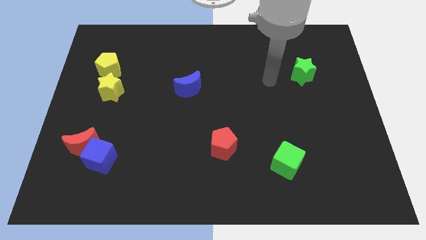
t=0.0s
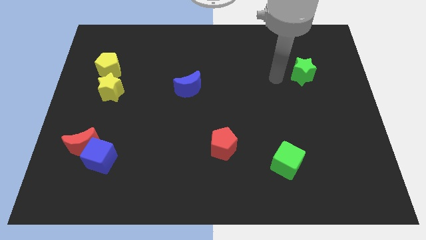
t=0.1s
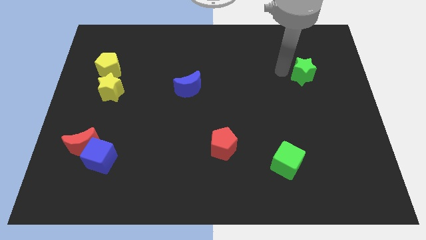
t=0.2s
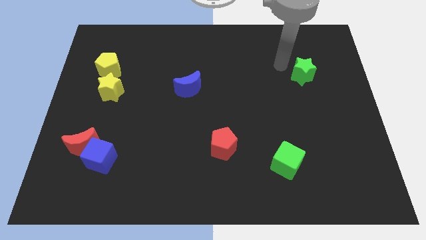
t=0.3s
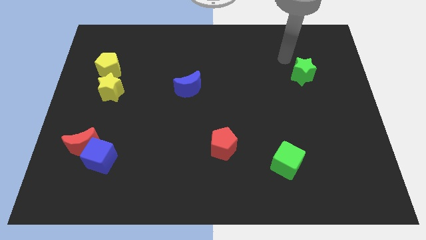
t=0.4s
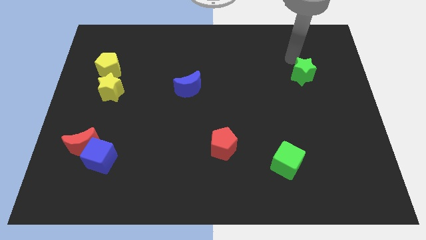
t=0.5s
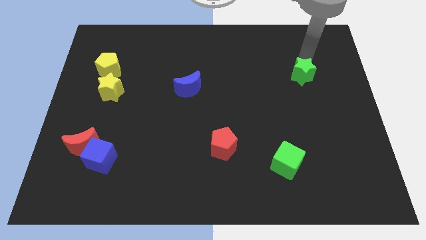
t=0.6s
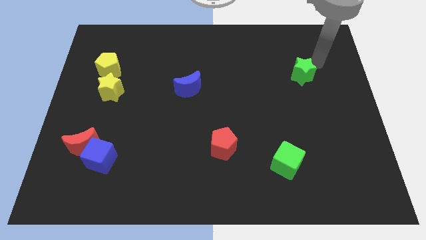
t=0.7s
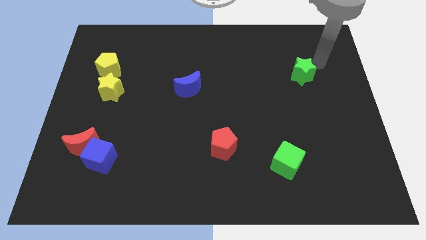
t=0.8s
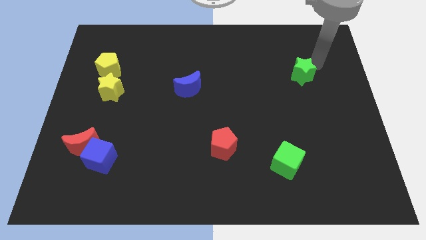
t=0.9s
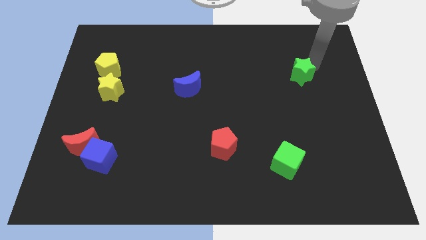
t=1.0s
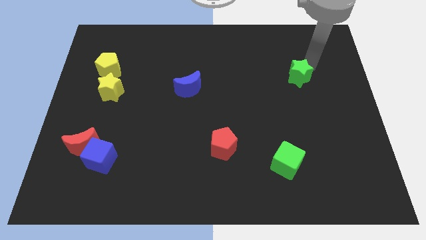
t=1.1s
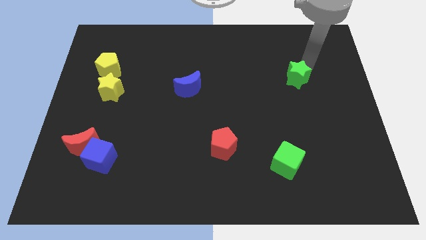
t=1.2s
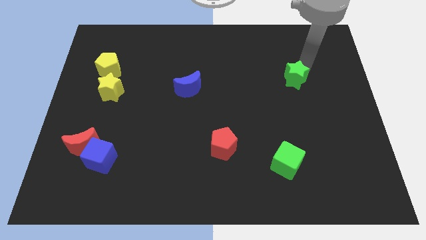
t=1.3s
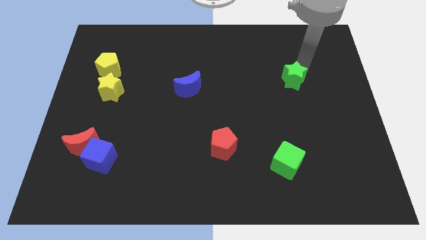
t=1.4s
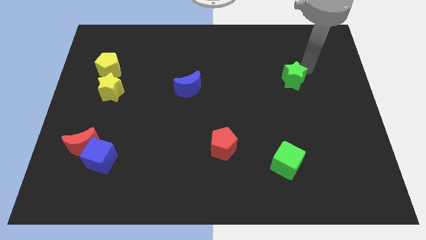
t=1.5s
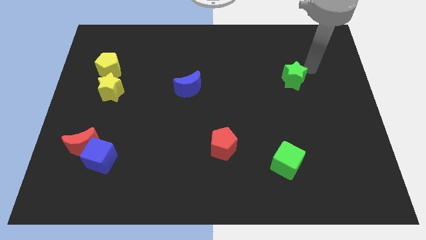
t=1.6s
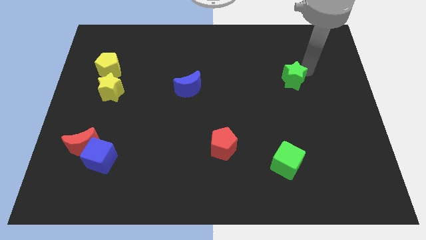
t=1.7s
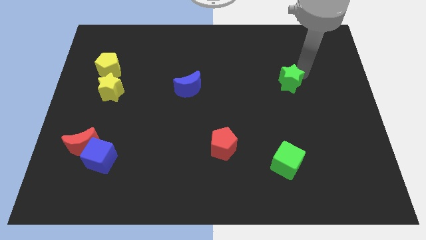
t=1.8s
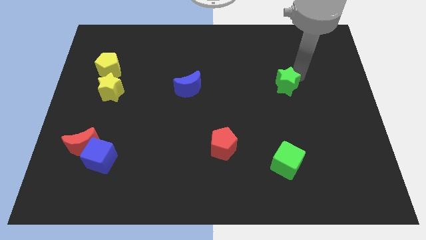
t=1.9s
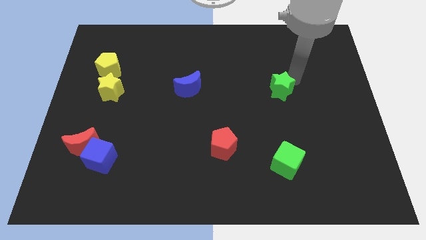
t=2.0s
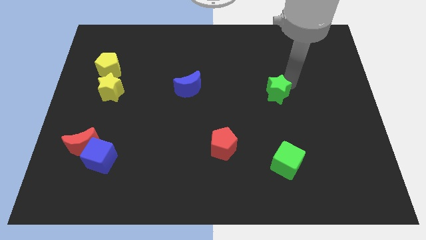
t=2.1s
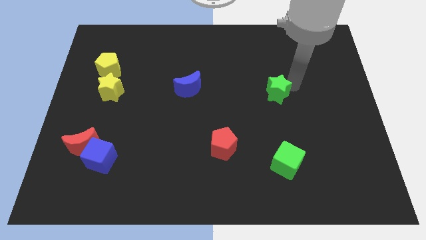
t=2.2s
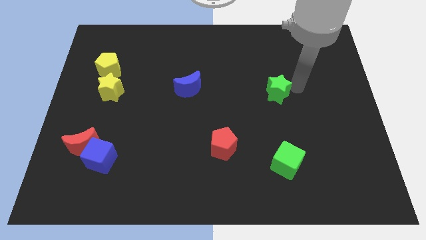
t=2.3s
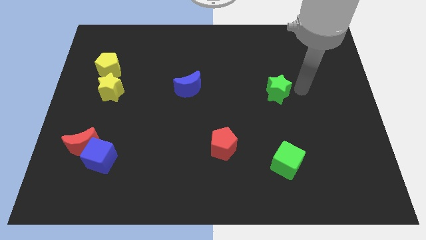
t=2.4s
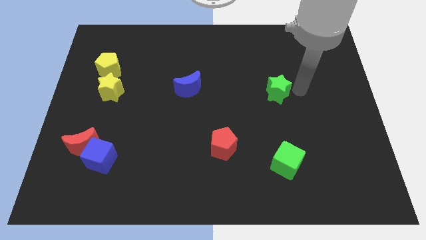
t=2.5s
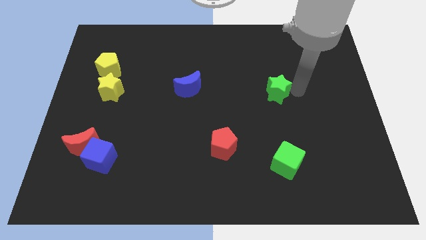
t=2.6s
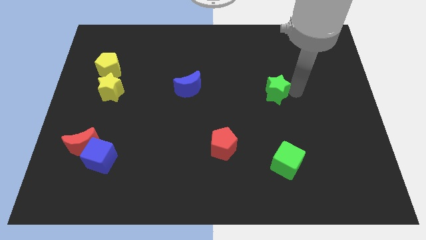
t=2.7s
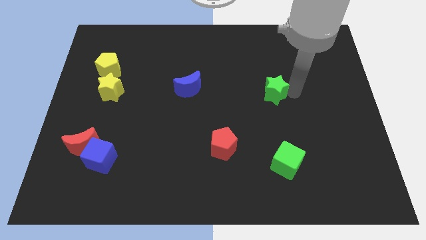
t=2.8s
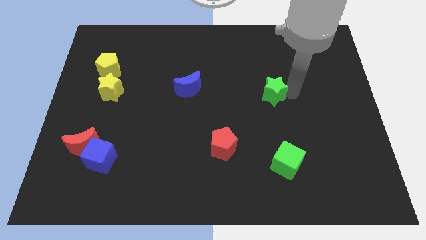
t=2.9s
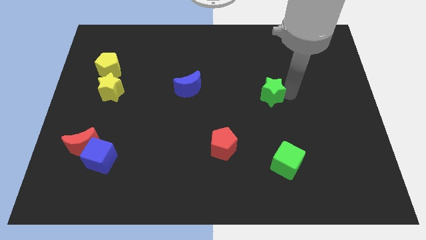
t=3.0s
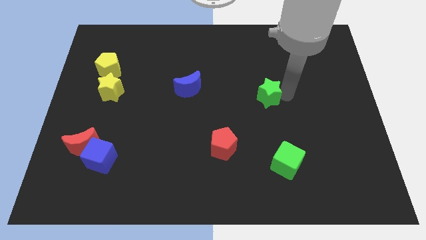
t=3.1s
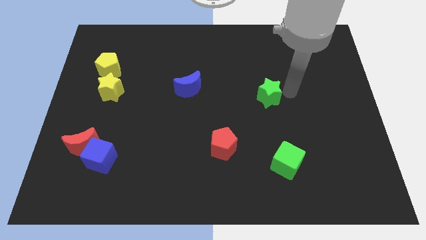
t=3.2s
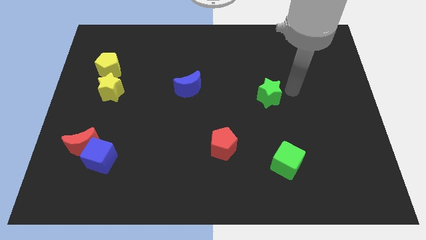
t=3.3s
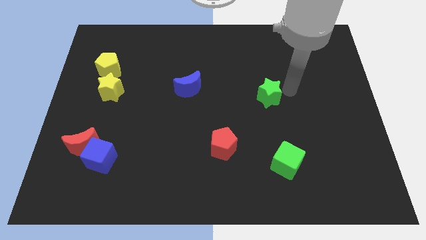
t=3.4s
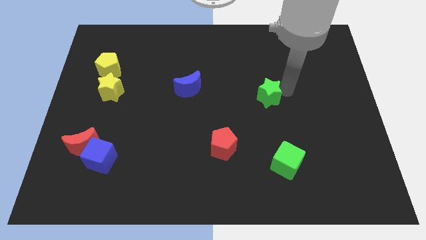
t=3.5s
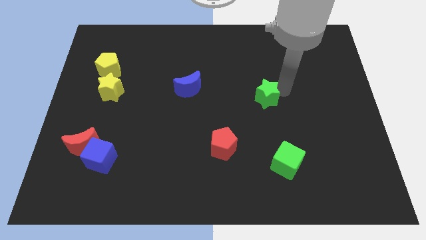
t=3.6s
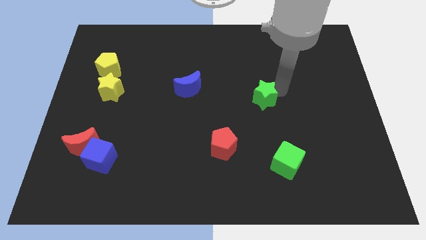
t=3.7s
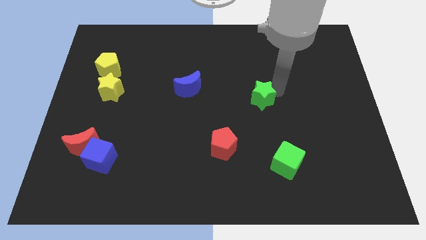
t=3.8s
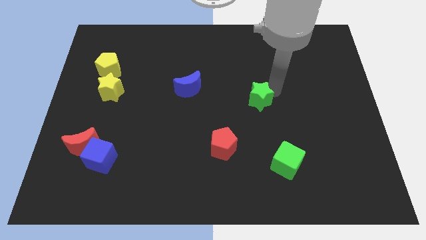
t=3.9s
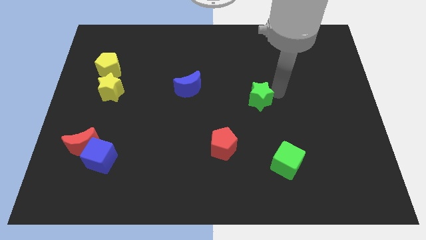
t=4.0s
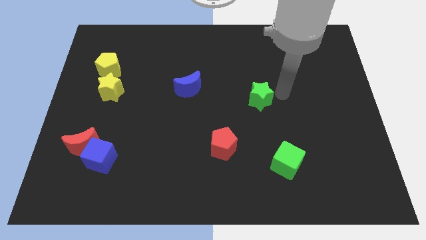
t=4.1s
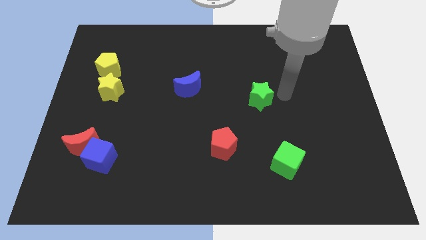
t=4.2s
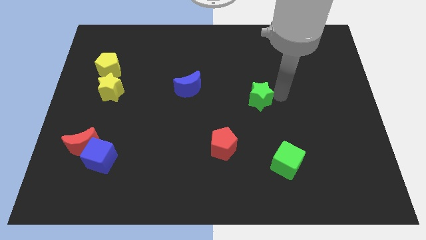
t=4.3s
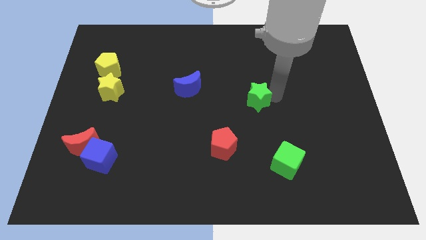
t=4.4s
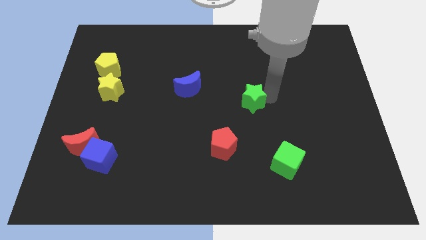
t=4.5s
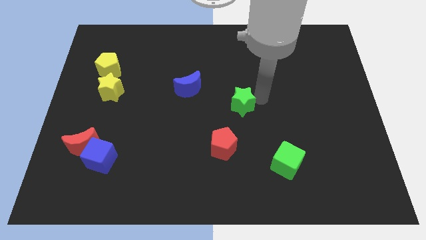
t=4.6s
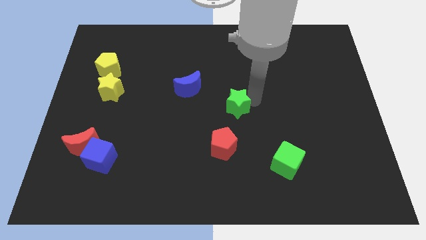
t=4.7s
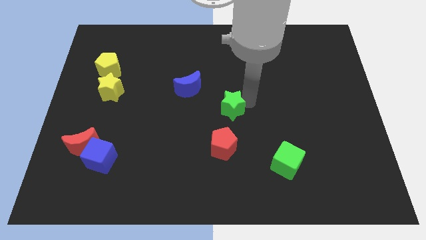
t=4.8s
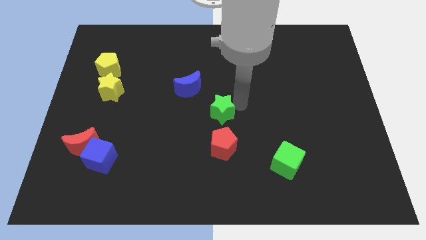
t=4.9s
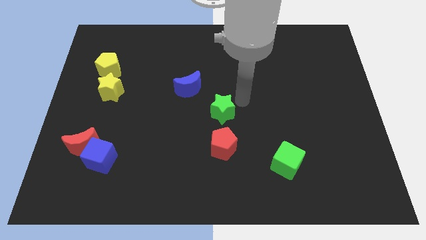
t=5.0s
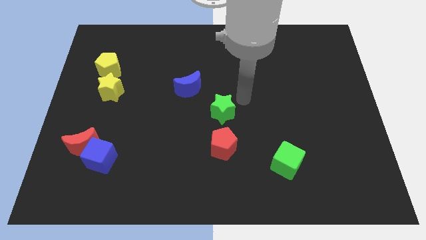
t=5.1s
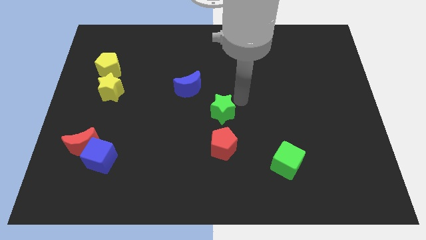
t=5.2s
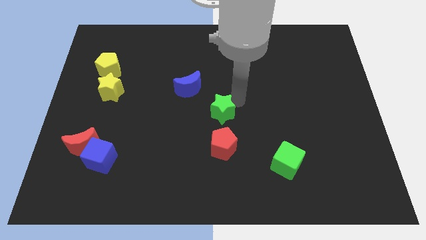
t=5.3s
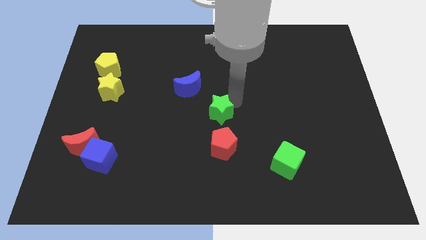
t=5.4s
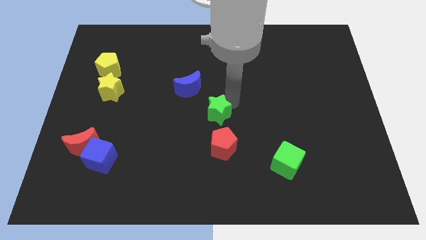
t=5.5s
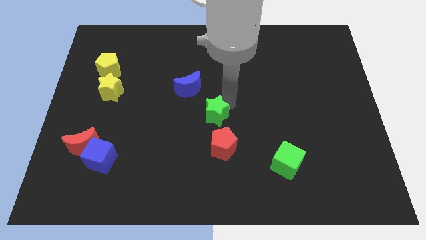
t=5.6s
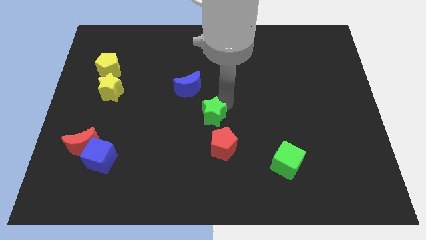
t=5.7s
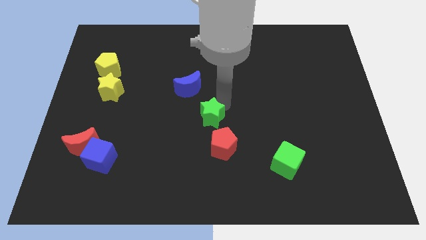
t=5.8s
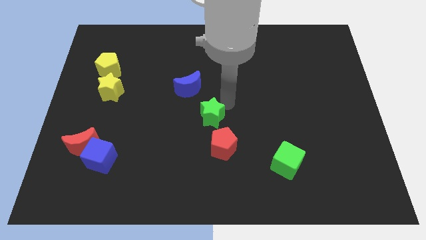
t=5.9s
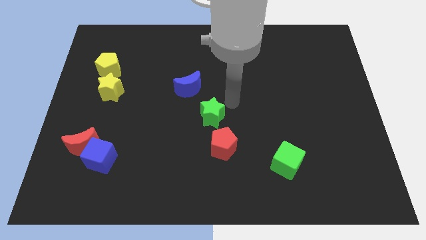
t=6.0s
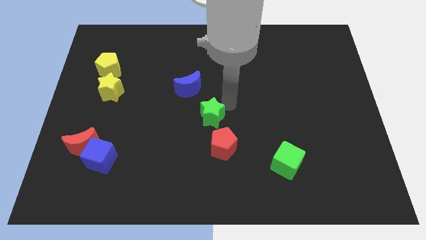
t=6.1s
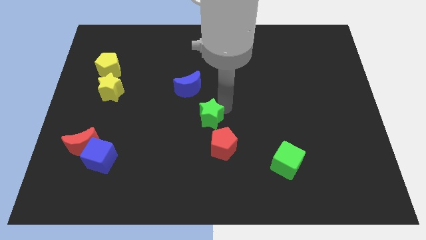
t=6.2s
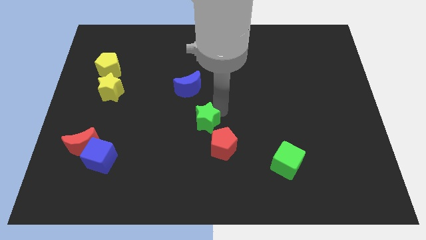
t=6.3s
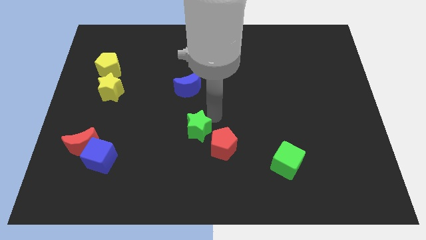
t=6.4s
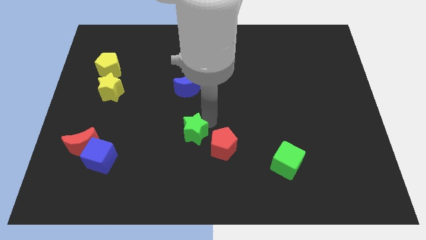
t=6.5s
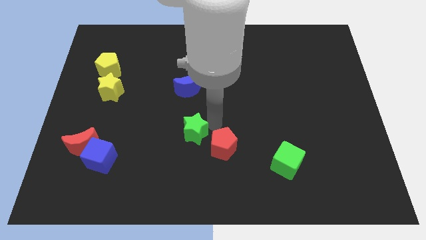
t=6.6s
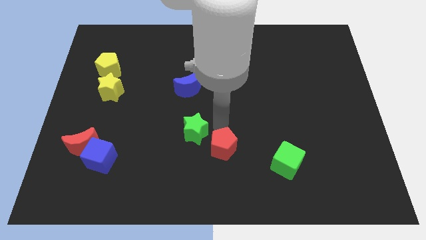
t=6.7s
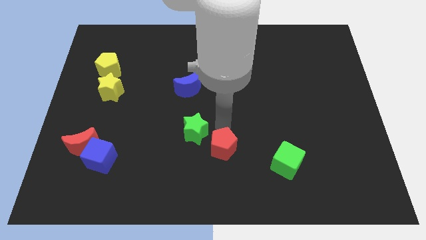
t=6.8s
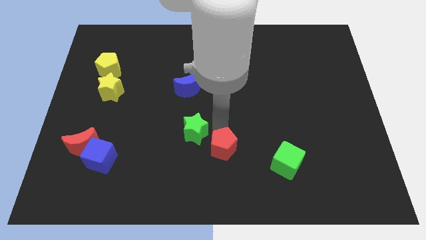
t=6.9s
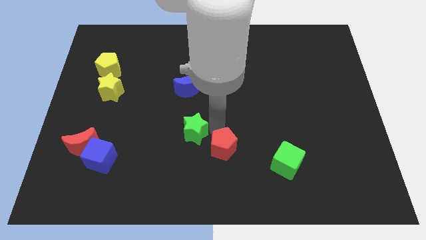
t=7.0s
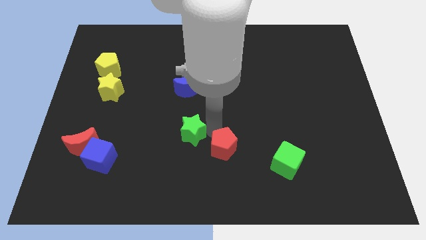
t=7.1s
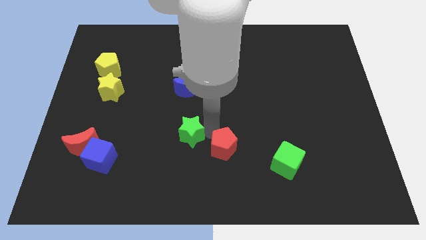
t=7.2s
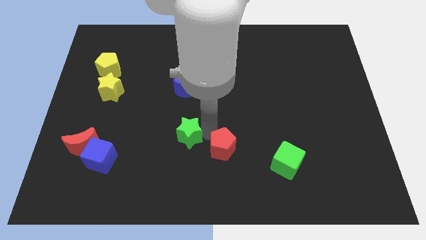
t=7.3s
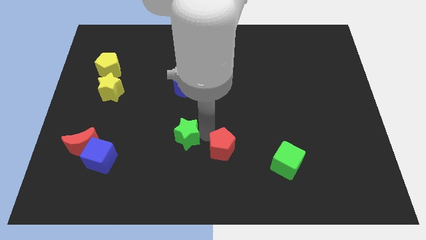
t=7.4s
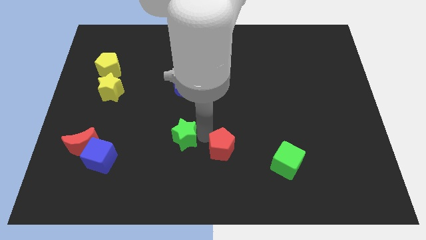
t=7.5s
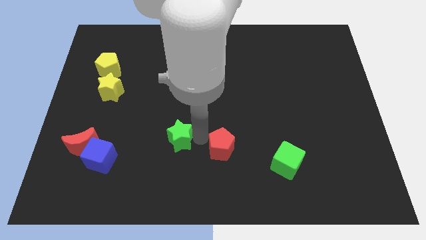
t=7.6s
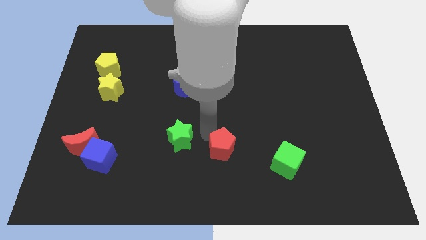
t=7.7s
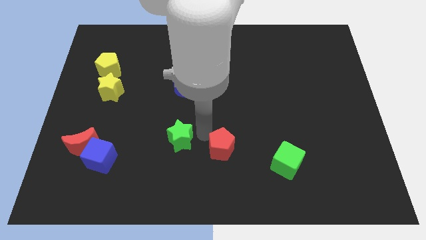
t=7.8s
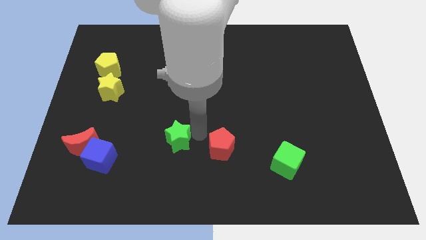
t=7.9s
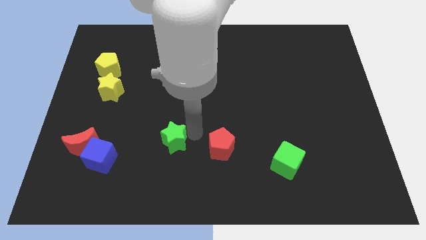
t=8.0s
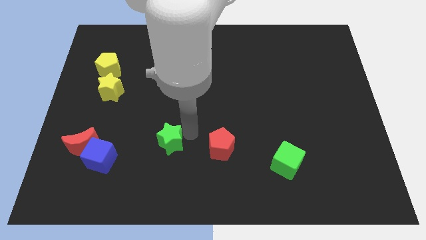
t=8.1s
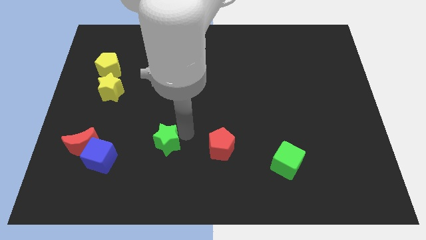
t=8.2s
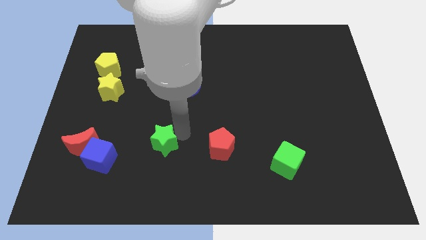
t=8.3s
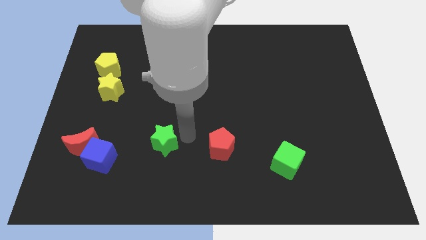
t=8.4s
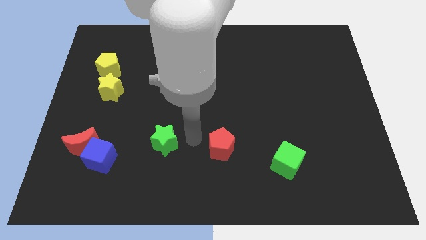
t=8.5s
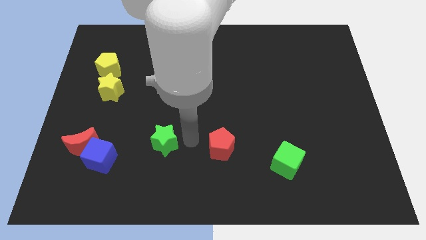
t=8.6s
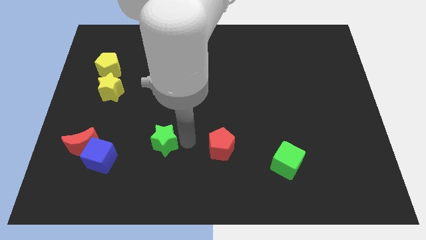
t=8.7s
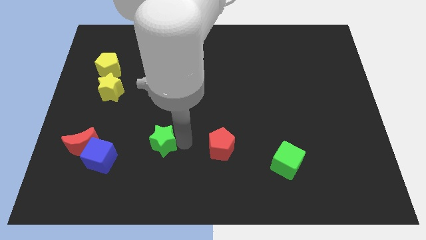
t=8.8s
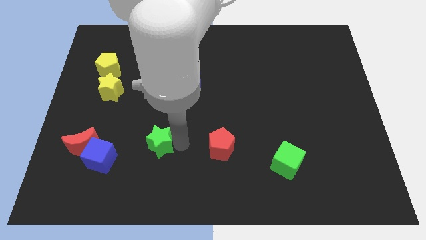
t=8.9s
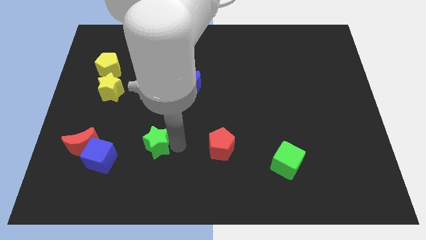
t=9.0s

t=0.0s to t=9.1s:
slide the green star to the right of the red moon
